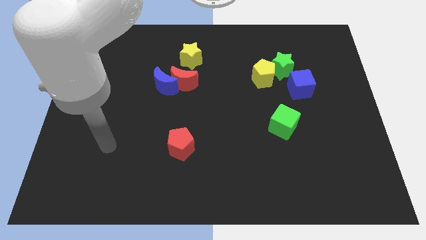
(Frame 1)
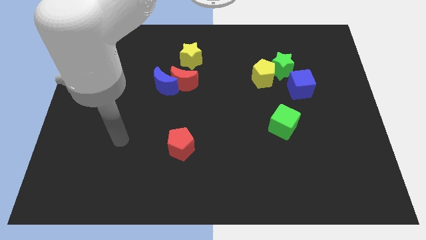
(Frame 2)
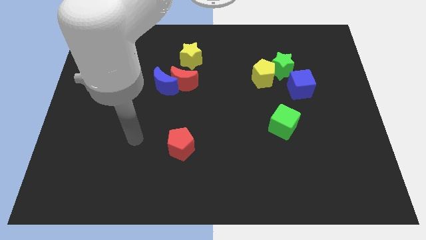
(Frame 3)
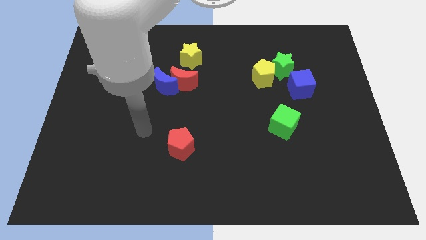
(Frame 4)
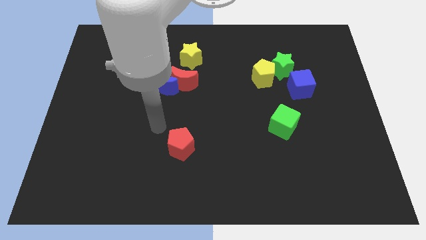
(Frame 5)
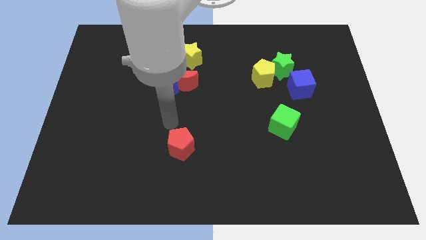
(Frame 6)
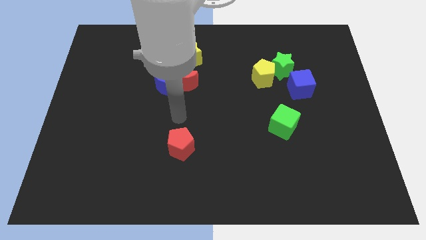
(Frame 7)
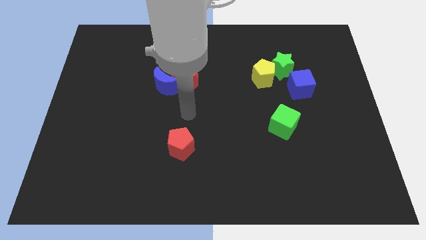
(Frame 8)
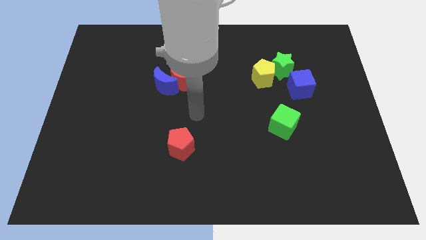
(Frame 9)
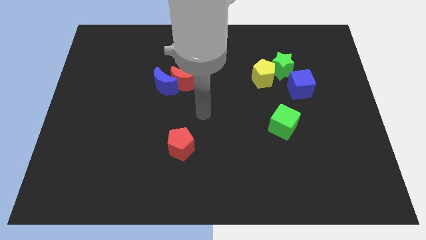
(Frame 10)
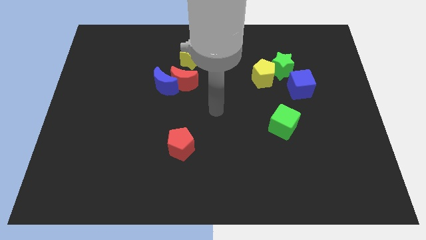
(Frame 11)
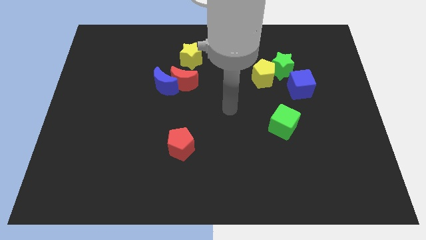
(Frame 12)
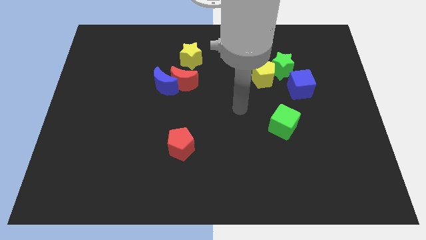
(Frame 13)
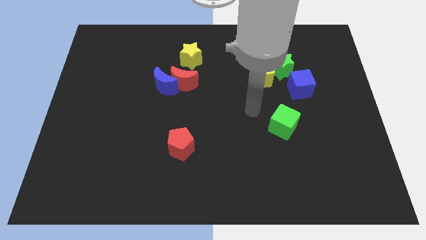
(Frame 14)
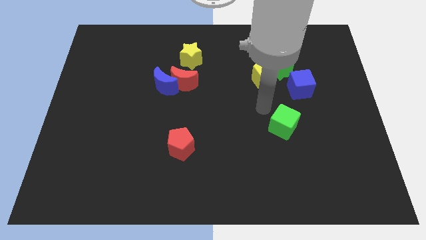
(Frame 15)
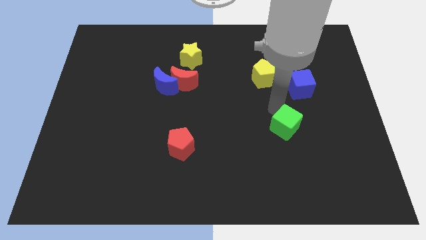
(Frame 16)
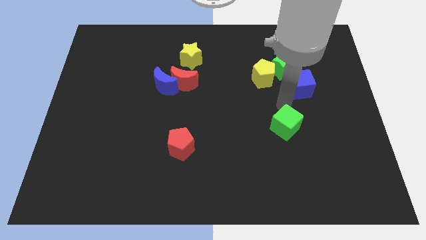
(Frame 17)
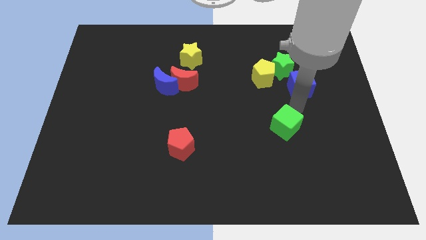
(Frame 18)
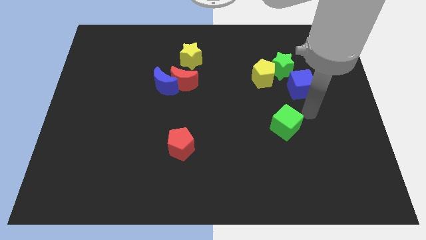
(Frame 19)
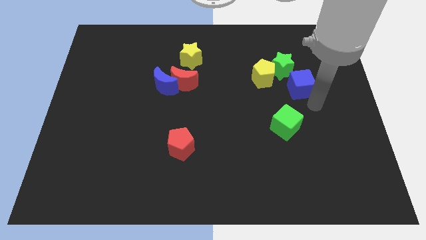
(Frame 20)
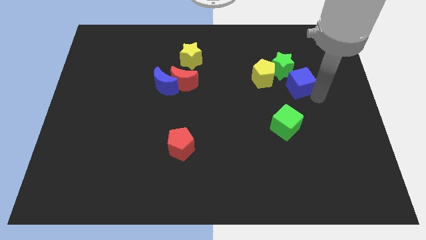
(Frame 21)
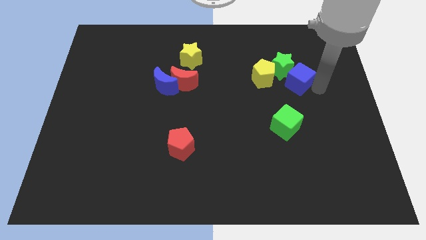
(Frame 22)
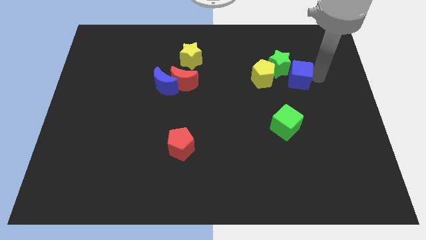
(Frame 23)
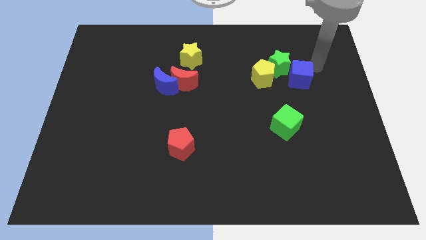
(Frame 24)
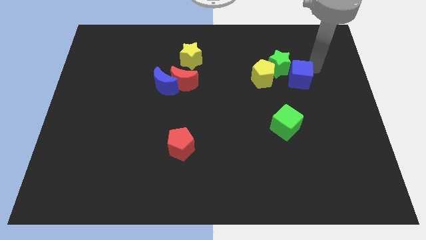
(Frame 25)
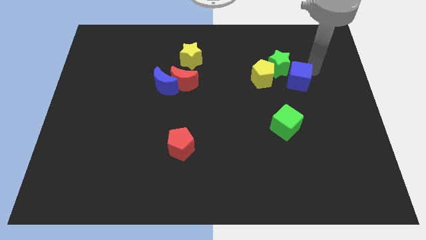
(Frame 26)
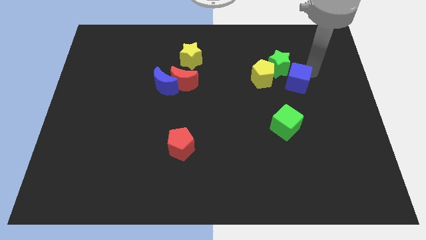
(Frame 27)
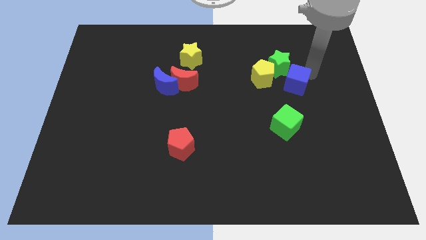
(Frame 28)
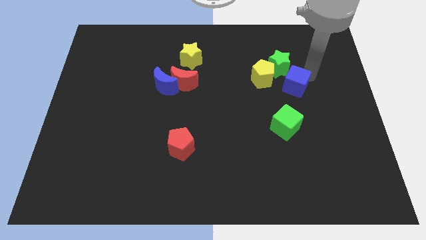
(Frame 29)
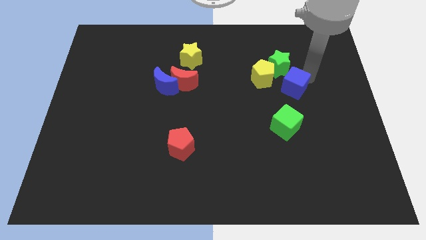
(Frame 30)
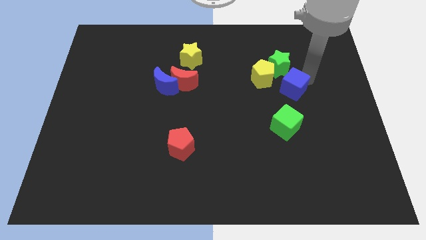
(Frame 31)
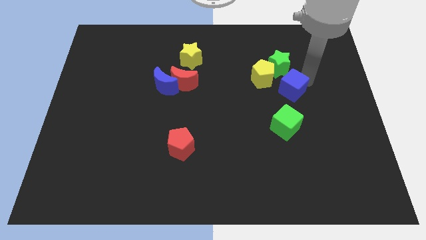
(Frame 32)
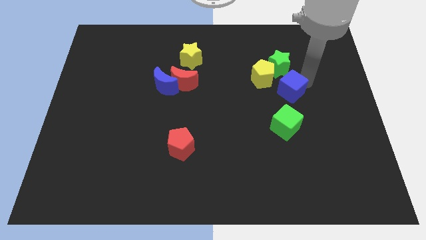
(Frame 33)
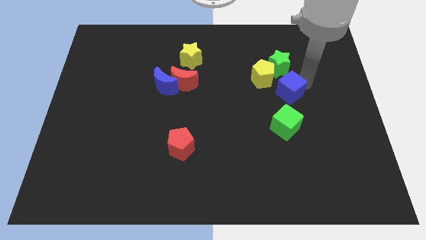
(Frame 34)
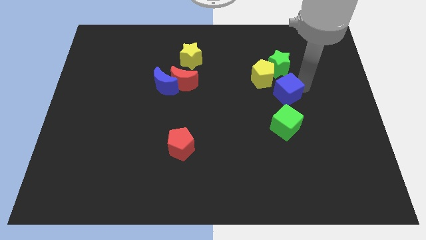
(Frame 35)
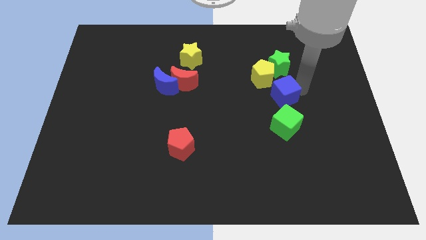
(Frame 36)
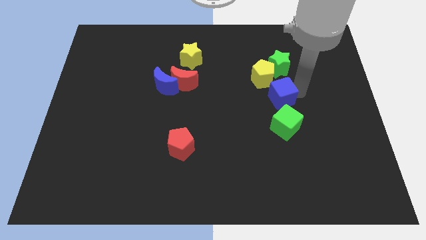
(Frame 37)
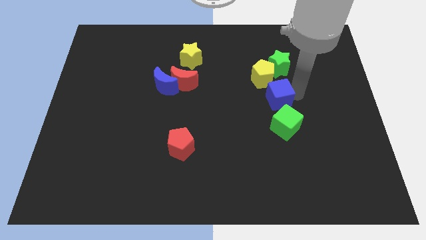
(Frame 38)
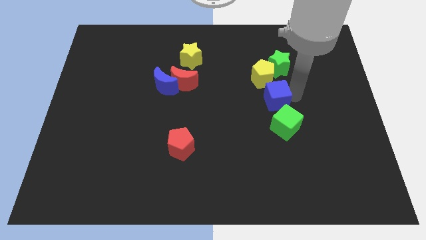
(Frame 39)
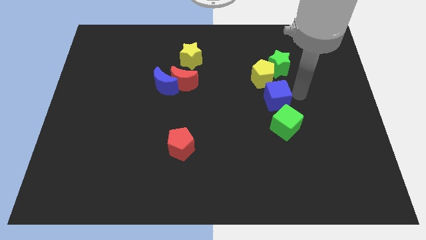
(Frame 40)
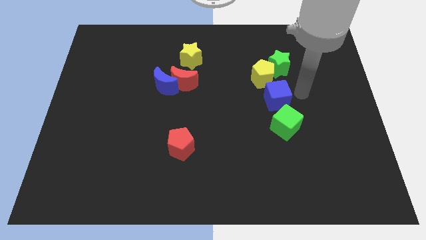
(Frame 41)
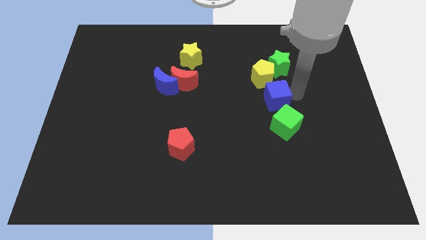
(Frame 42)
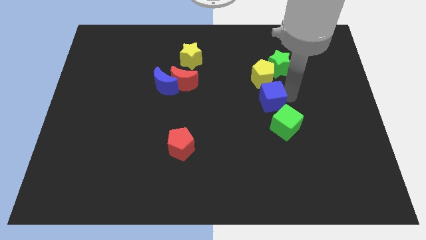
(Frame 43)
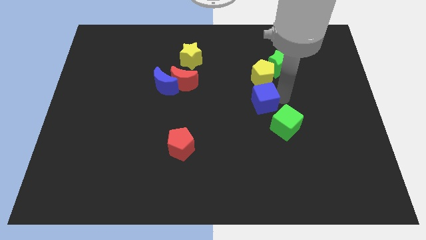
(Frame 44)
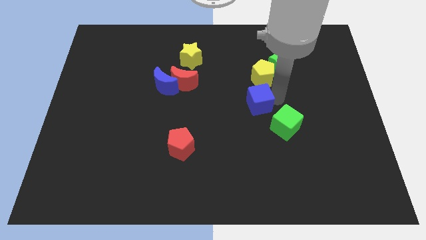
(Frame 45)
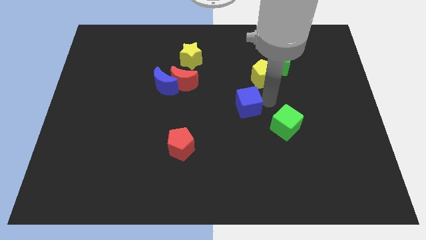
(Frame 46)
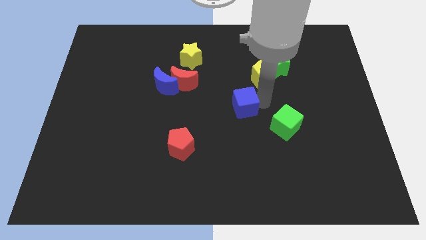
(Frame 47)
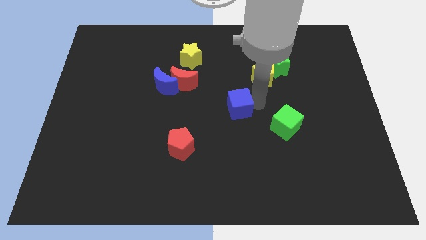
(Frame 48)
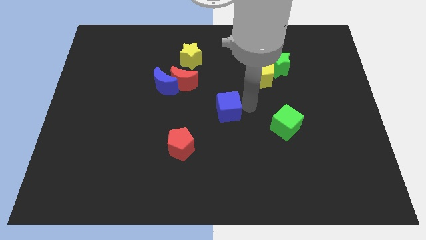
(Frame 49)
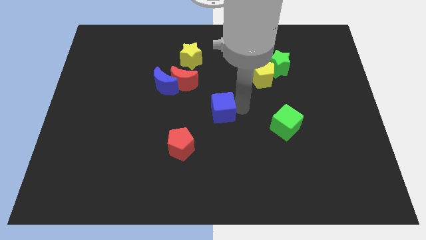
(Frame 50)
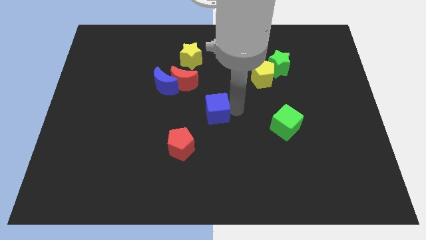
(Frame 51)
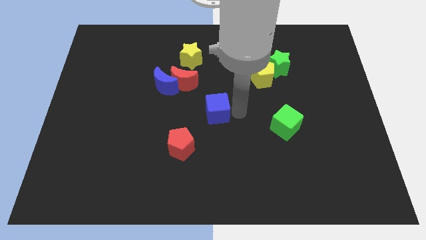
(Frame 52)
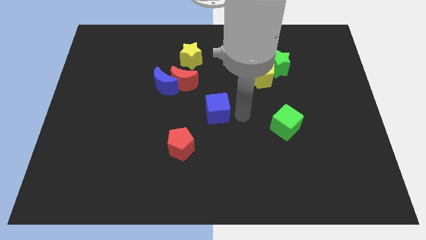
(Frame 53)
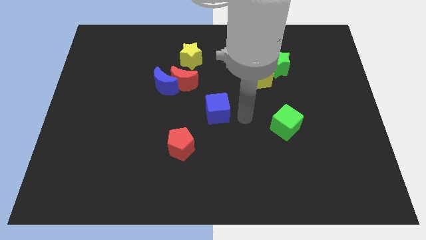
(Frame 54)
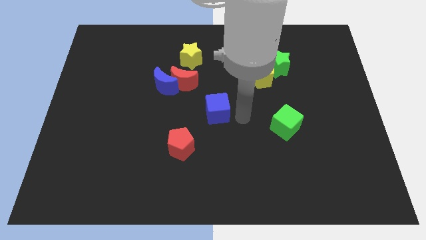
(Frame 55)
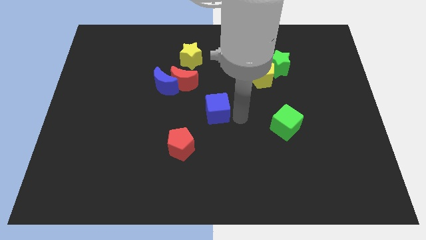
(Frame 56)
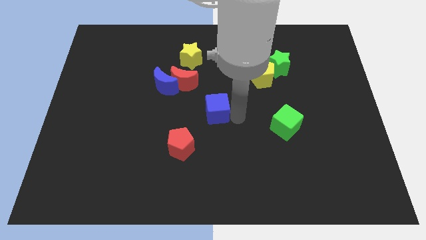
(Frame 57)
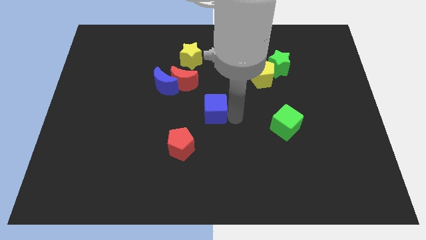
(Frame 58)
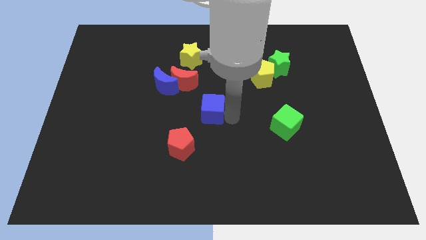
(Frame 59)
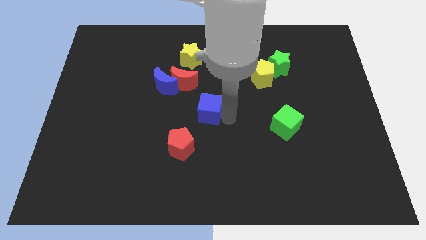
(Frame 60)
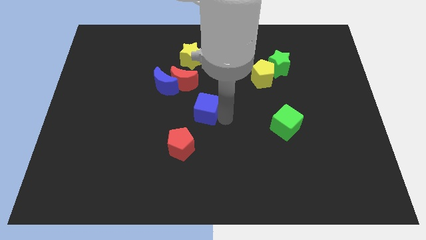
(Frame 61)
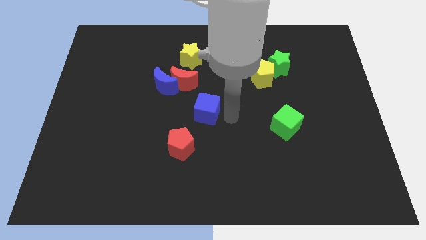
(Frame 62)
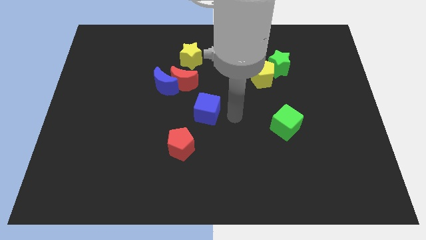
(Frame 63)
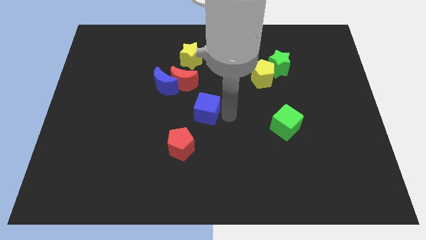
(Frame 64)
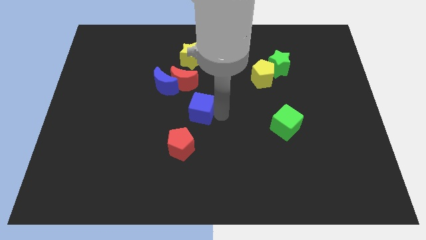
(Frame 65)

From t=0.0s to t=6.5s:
slide the blue cube to the top of the red pentagon

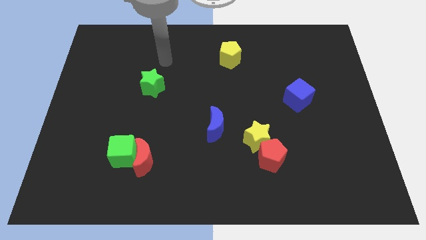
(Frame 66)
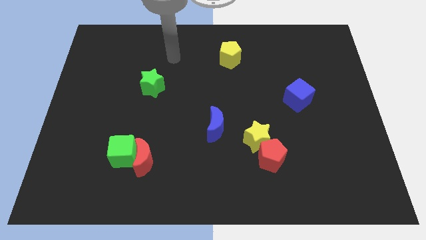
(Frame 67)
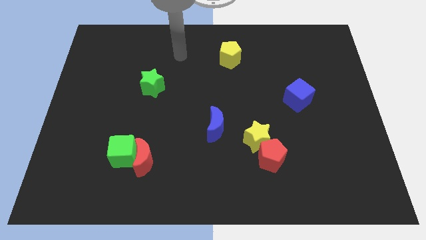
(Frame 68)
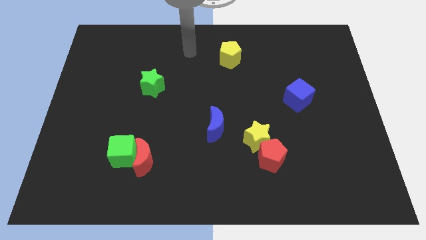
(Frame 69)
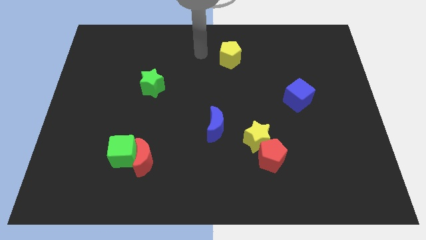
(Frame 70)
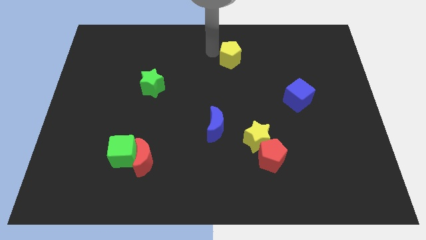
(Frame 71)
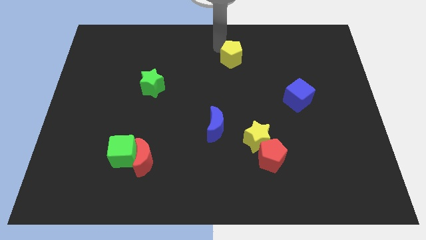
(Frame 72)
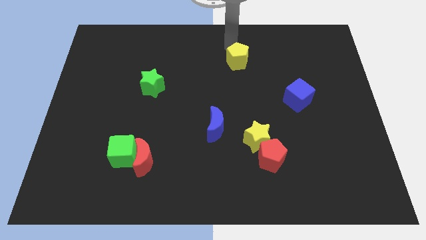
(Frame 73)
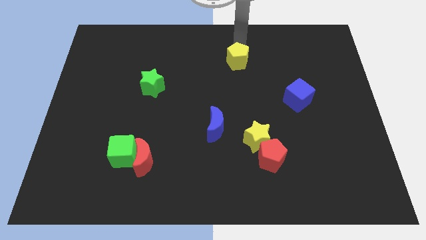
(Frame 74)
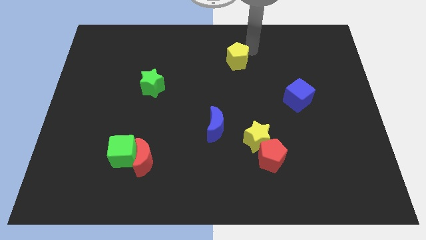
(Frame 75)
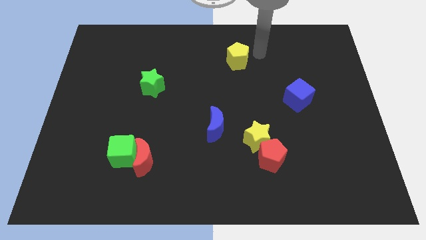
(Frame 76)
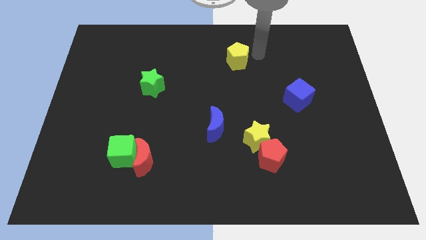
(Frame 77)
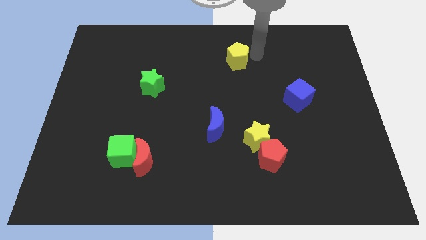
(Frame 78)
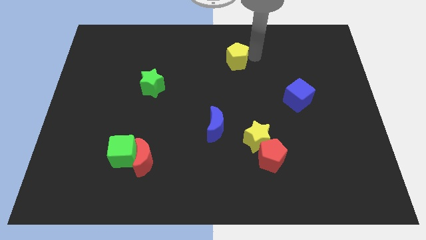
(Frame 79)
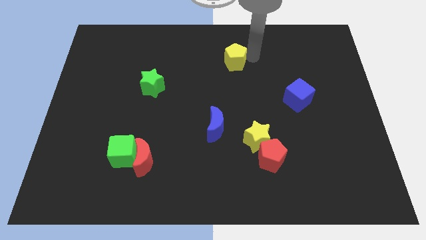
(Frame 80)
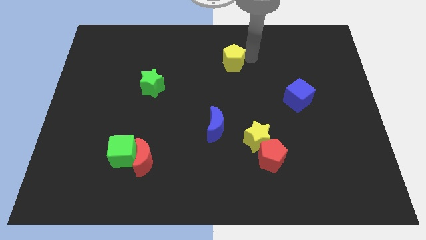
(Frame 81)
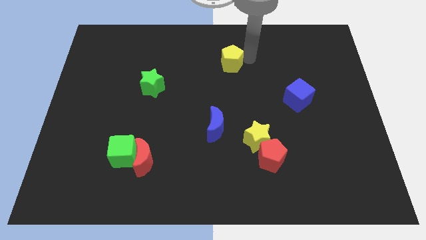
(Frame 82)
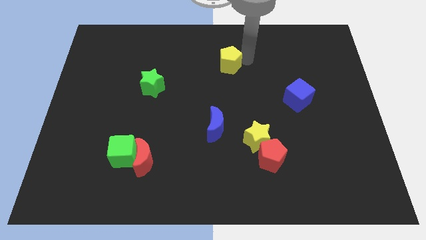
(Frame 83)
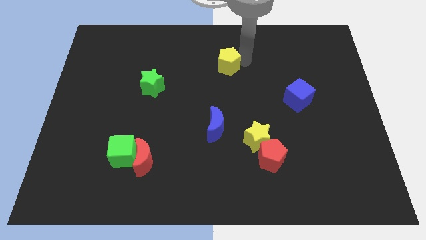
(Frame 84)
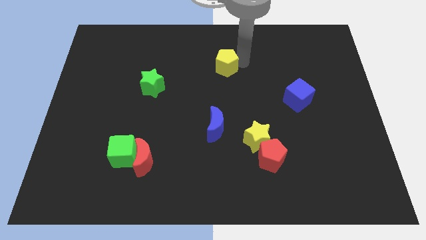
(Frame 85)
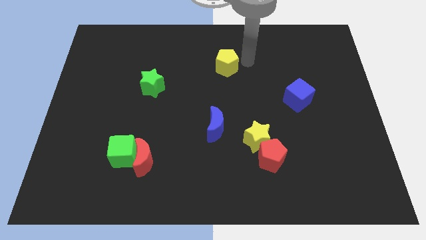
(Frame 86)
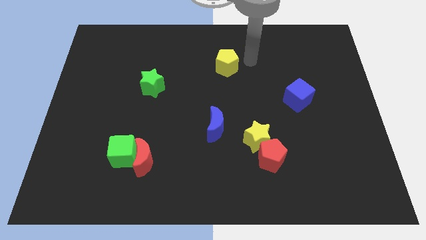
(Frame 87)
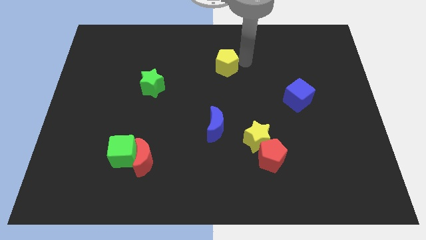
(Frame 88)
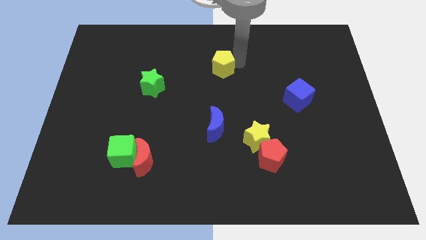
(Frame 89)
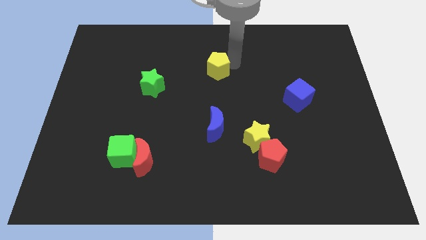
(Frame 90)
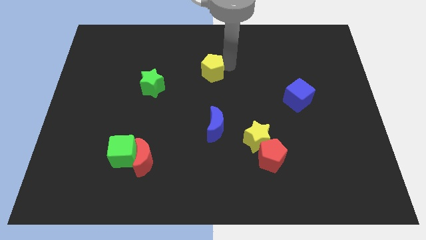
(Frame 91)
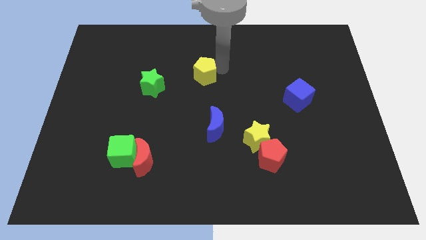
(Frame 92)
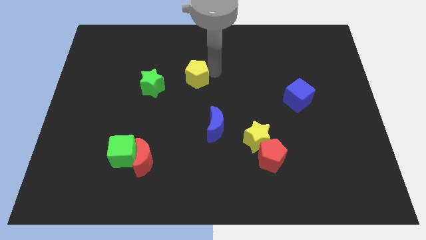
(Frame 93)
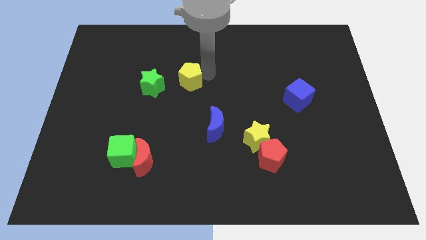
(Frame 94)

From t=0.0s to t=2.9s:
move the yellow pentagon diagonally up and to the right of the green star
